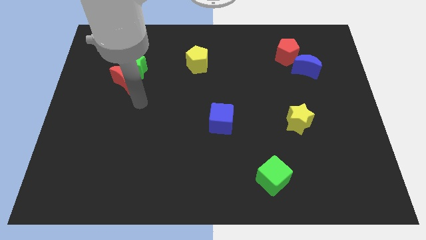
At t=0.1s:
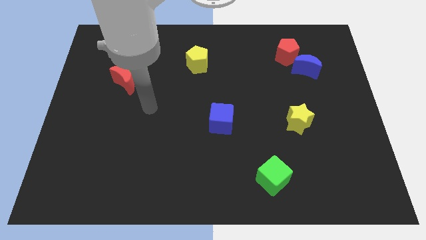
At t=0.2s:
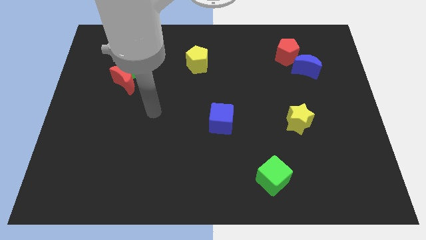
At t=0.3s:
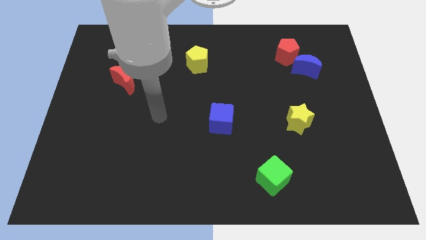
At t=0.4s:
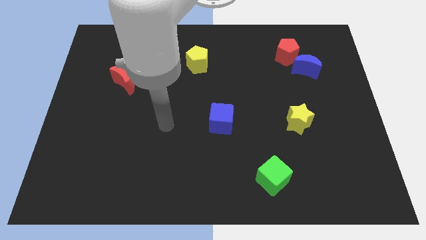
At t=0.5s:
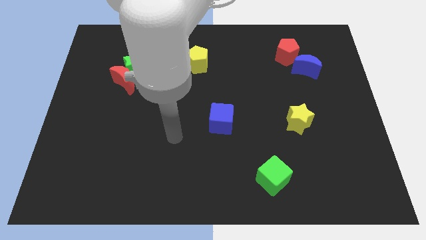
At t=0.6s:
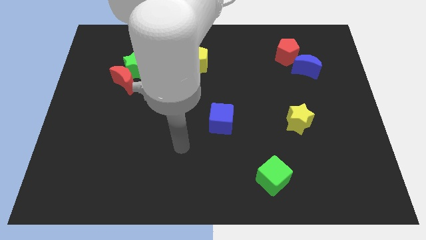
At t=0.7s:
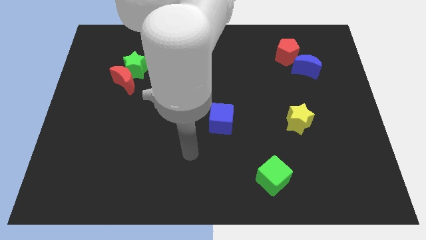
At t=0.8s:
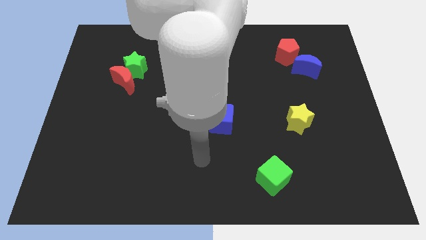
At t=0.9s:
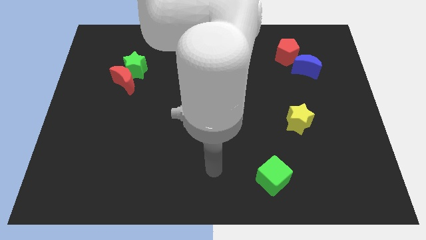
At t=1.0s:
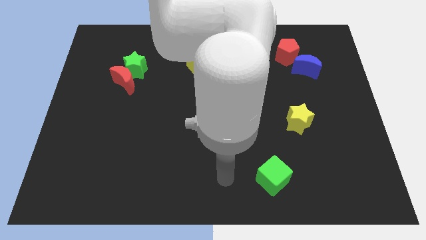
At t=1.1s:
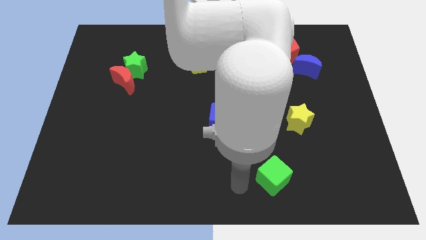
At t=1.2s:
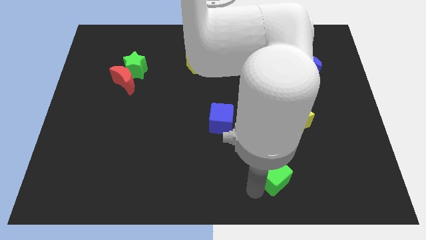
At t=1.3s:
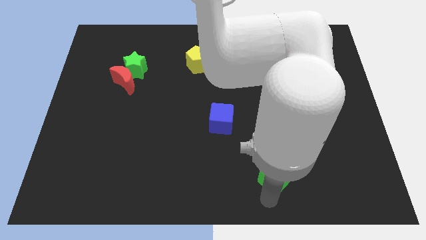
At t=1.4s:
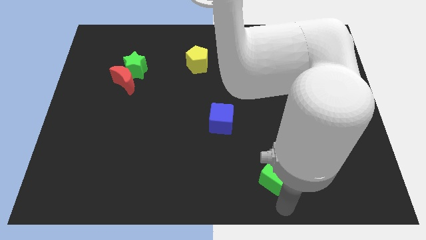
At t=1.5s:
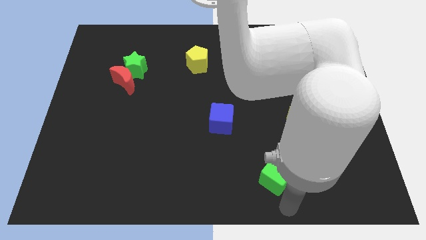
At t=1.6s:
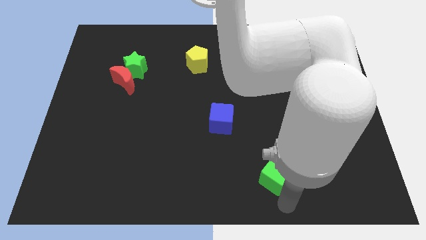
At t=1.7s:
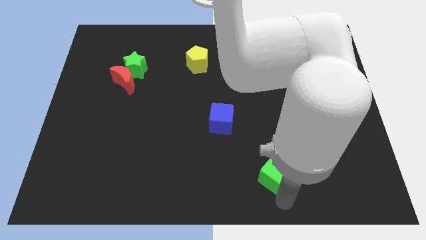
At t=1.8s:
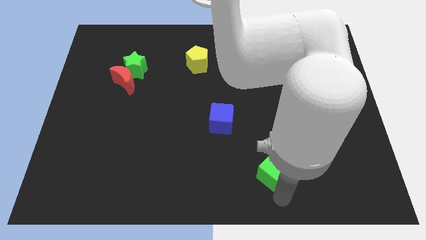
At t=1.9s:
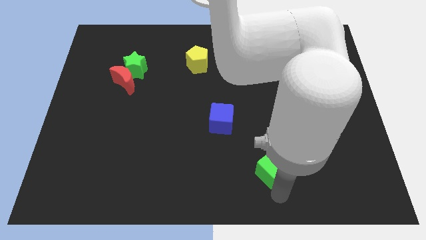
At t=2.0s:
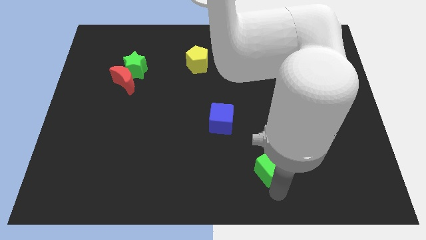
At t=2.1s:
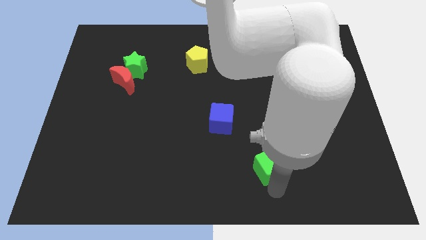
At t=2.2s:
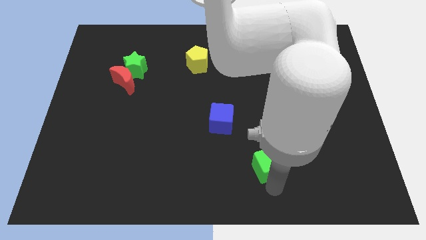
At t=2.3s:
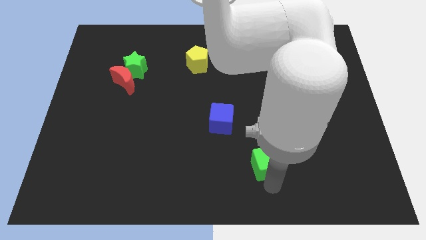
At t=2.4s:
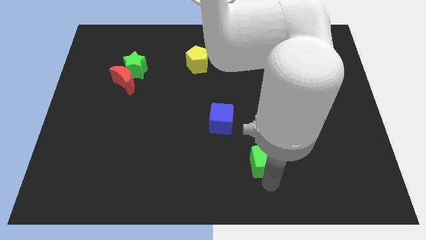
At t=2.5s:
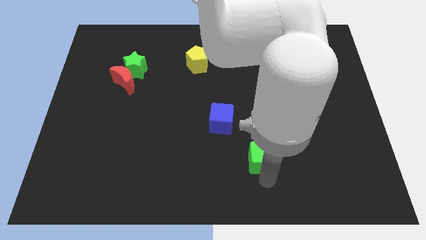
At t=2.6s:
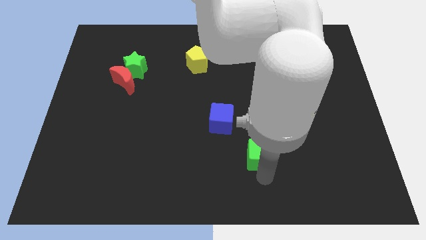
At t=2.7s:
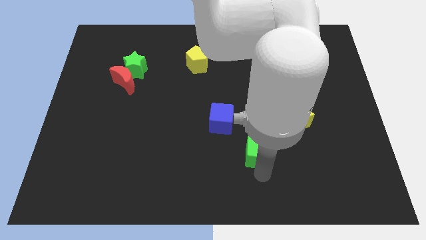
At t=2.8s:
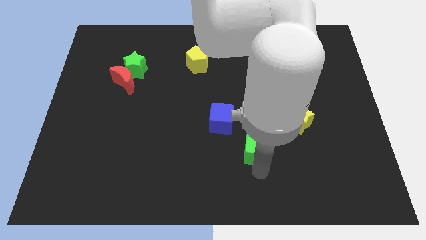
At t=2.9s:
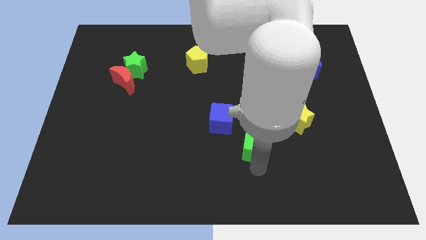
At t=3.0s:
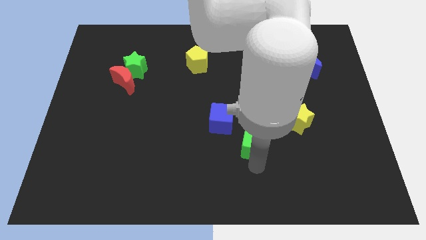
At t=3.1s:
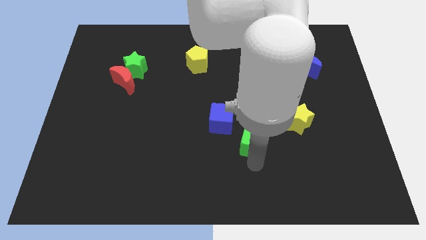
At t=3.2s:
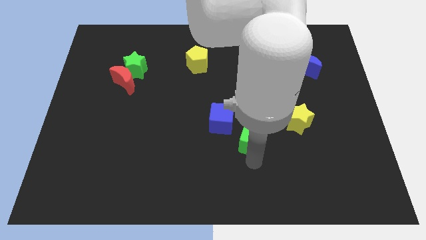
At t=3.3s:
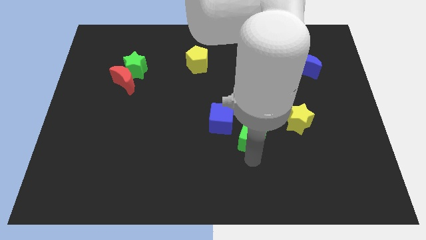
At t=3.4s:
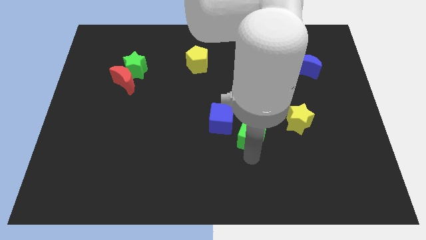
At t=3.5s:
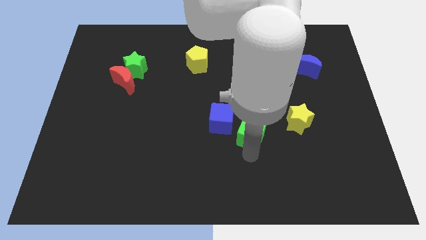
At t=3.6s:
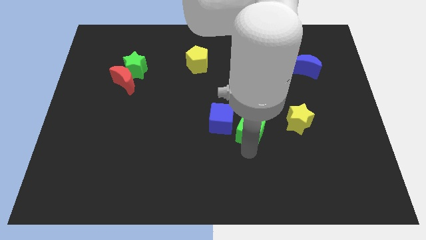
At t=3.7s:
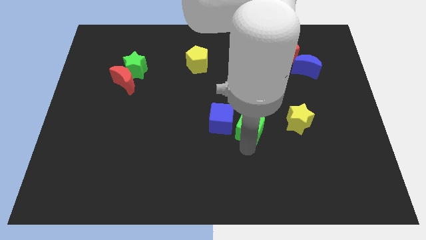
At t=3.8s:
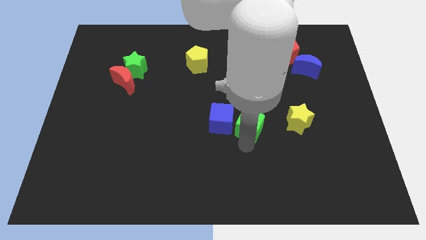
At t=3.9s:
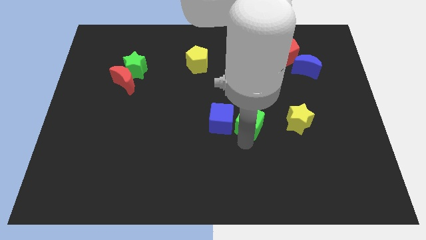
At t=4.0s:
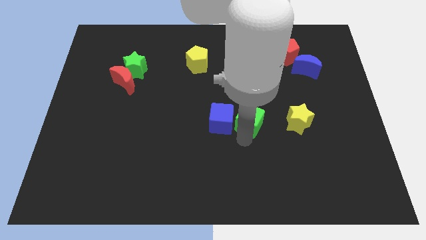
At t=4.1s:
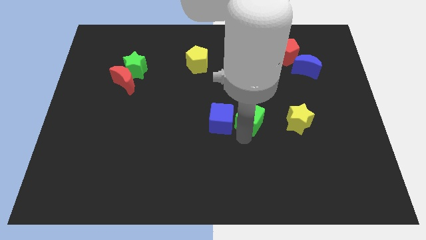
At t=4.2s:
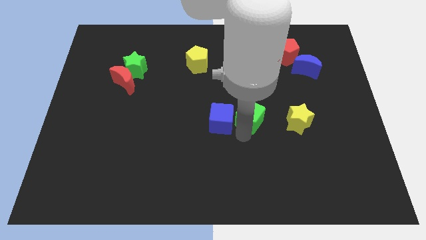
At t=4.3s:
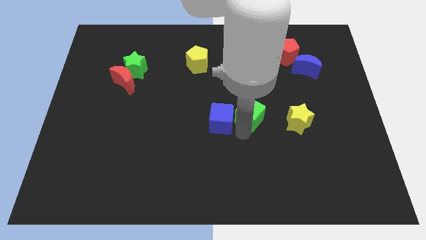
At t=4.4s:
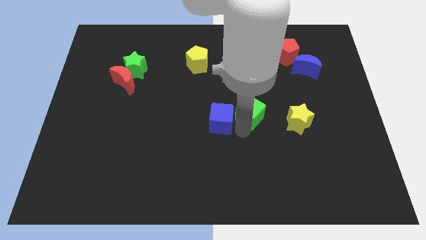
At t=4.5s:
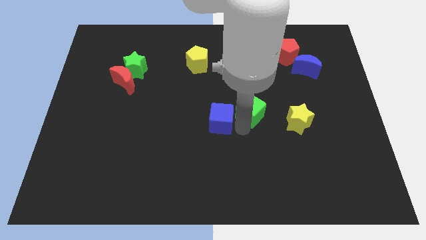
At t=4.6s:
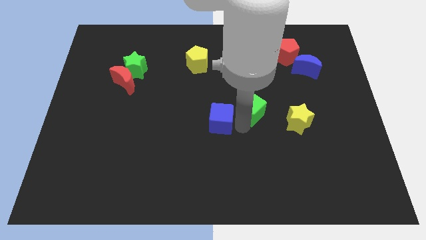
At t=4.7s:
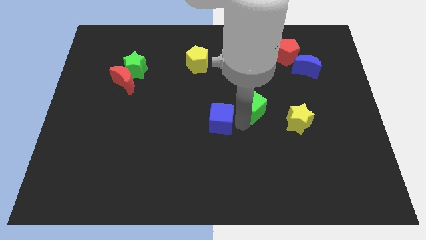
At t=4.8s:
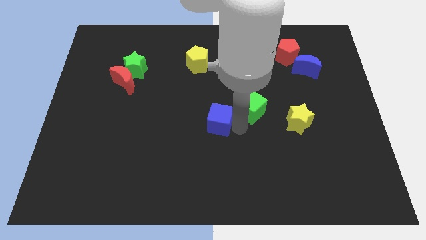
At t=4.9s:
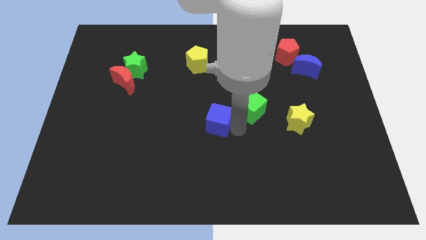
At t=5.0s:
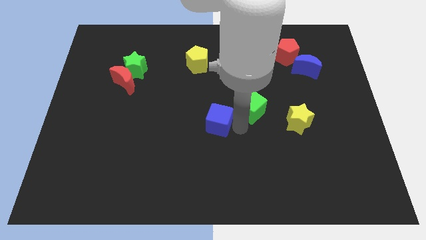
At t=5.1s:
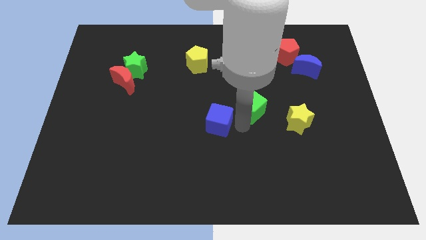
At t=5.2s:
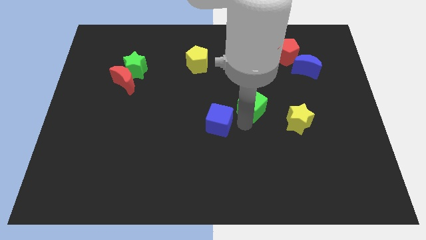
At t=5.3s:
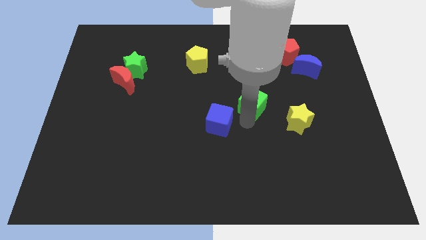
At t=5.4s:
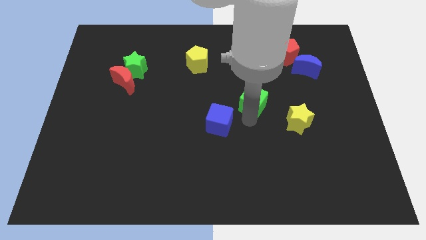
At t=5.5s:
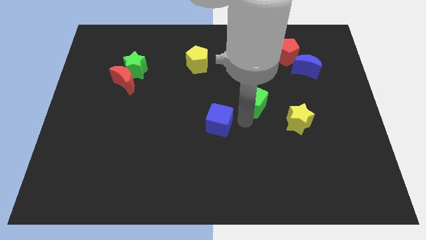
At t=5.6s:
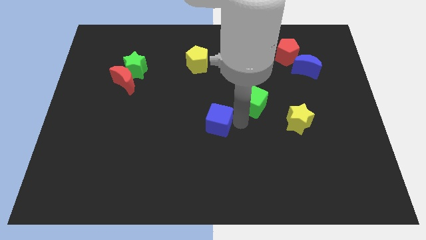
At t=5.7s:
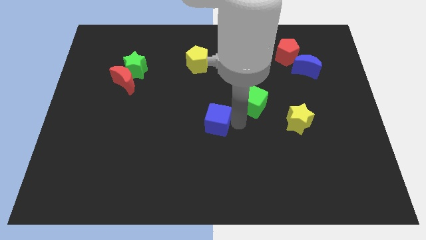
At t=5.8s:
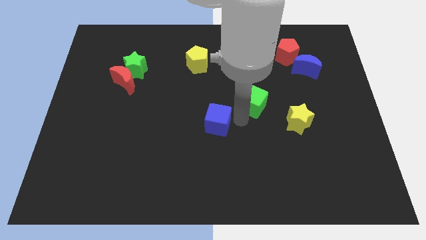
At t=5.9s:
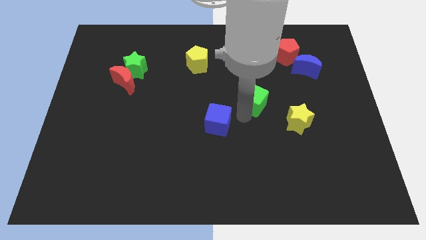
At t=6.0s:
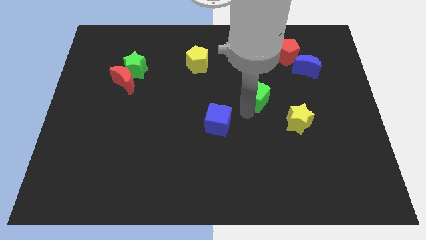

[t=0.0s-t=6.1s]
move the green cube up

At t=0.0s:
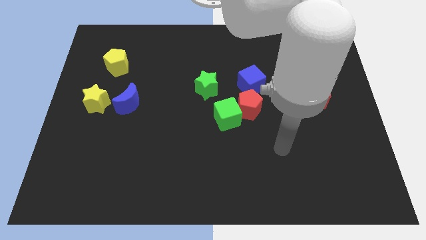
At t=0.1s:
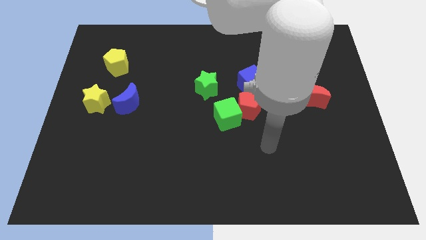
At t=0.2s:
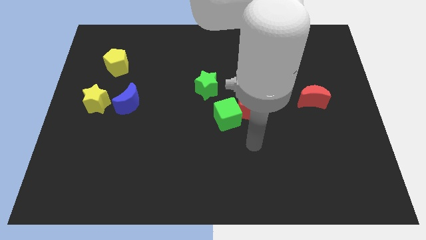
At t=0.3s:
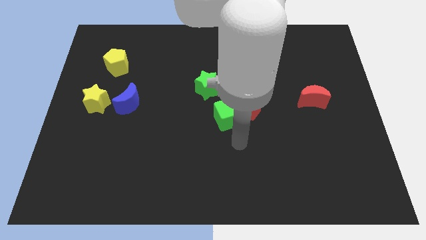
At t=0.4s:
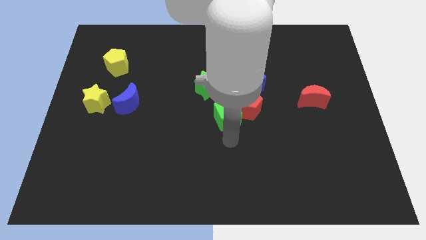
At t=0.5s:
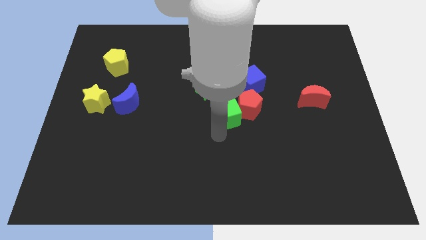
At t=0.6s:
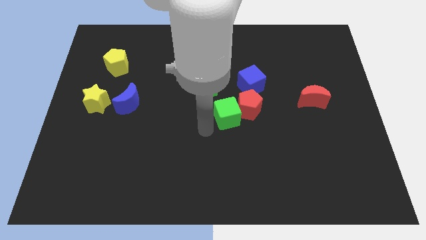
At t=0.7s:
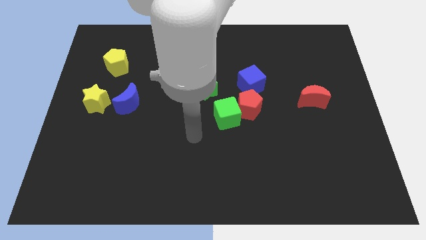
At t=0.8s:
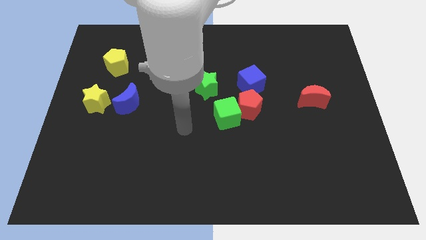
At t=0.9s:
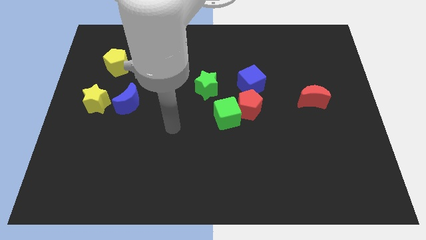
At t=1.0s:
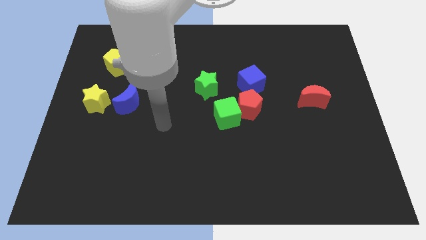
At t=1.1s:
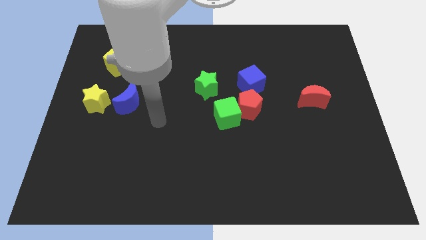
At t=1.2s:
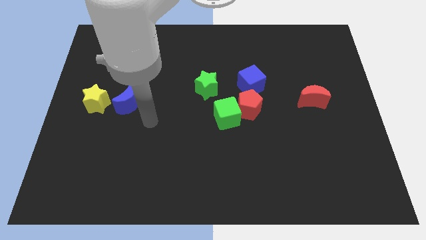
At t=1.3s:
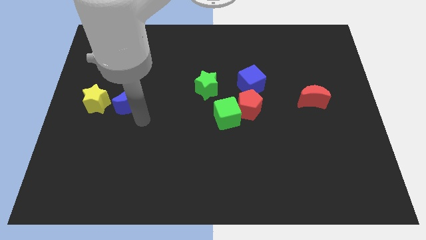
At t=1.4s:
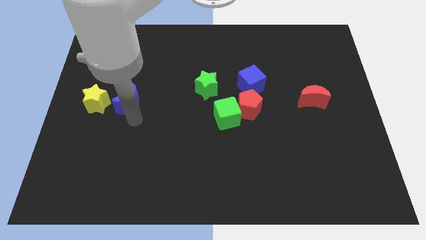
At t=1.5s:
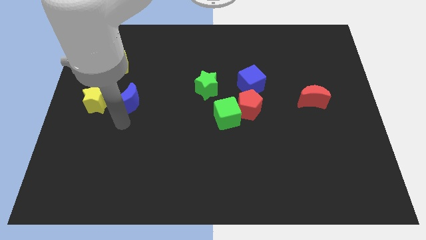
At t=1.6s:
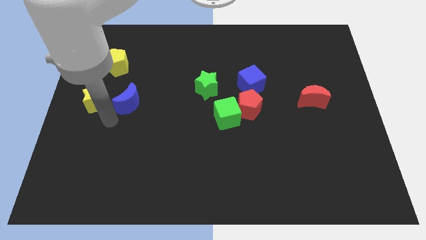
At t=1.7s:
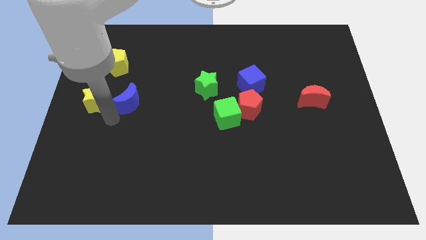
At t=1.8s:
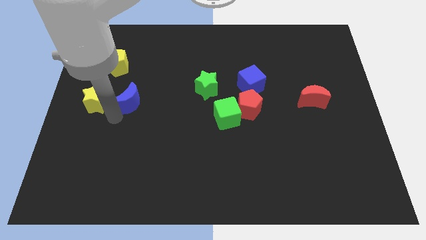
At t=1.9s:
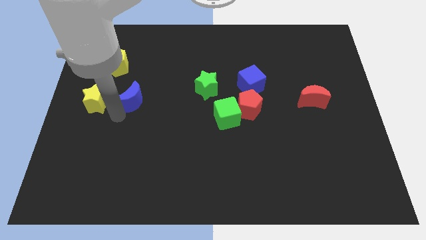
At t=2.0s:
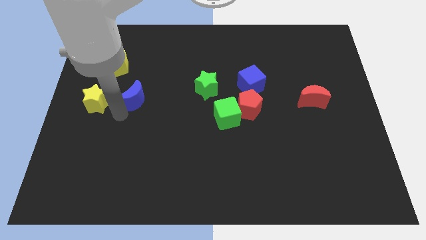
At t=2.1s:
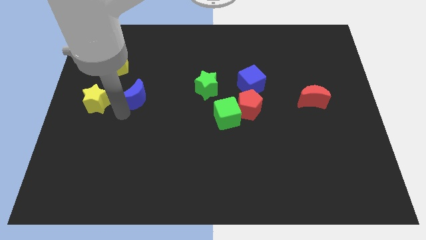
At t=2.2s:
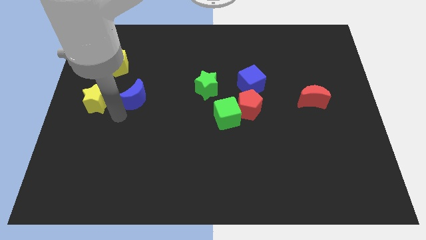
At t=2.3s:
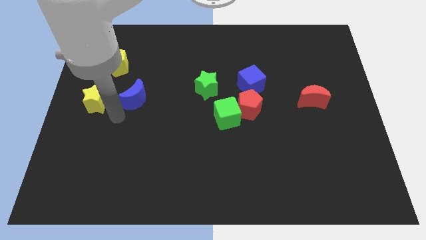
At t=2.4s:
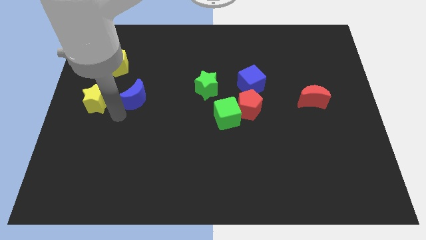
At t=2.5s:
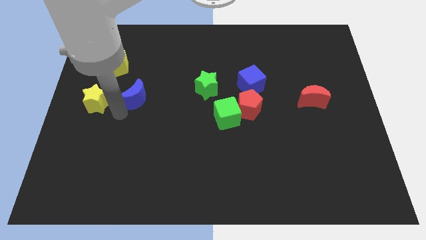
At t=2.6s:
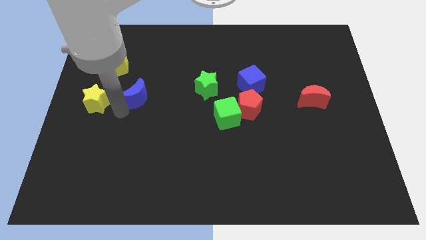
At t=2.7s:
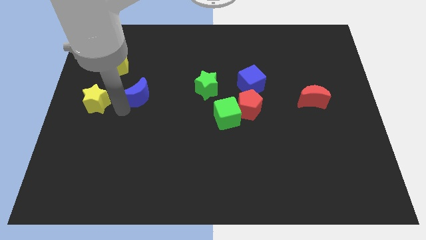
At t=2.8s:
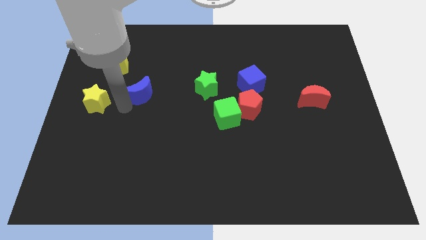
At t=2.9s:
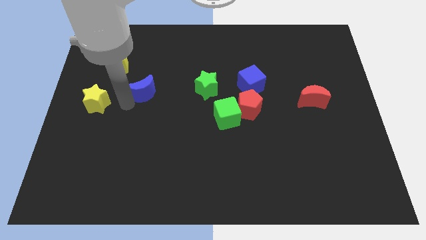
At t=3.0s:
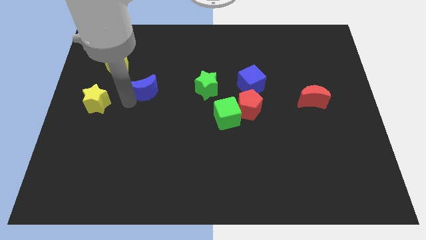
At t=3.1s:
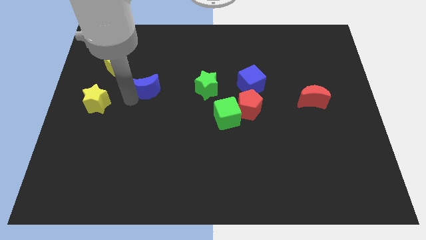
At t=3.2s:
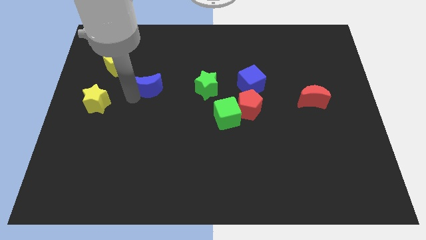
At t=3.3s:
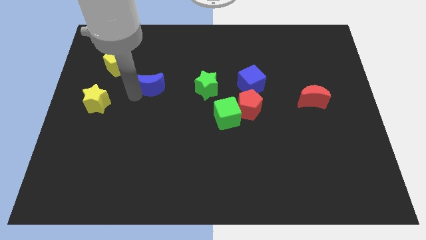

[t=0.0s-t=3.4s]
slide the blue moon up and to the right diagonally a little bit
